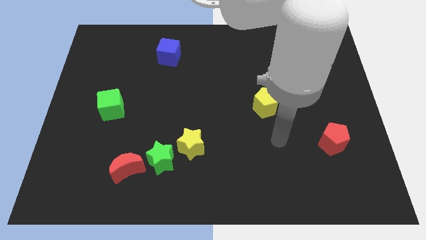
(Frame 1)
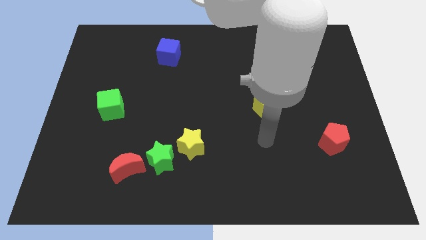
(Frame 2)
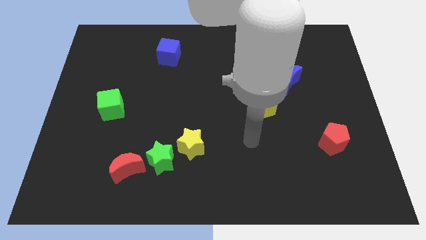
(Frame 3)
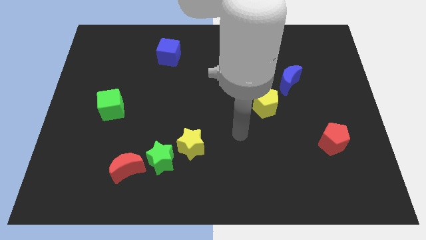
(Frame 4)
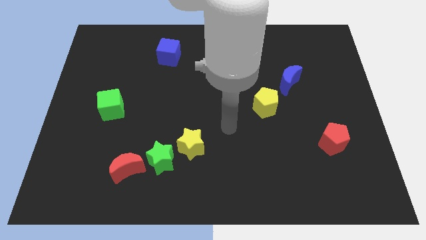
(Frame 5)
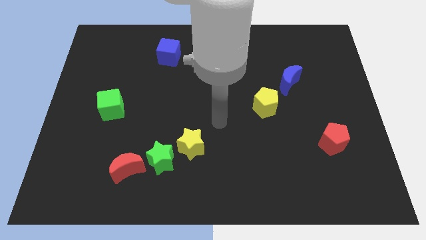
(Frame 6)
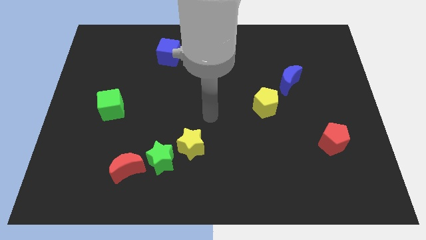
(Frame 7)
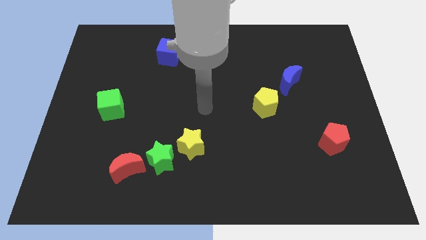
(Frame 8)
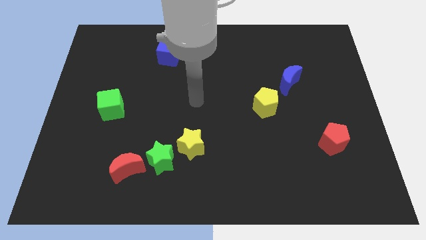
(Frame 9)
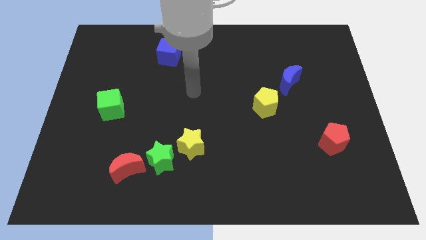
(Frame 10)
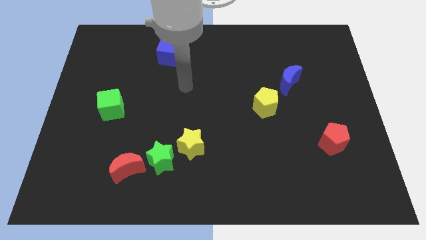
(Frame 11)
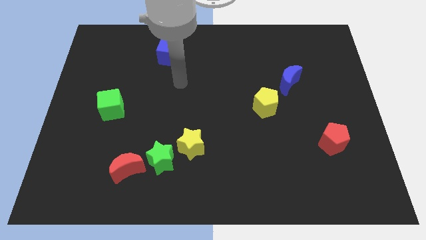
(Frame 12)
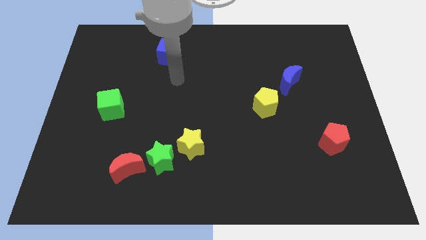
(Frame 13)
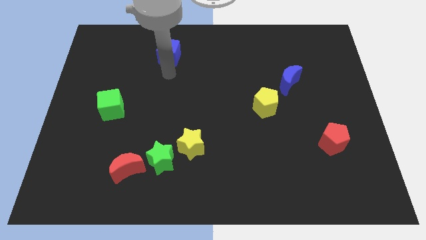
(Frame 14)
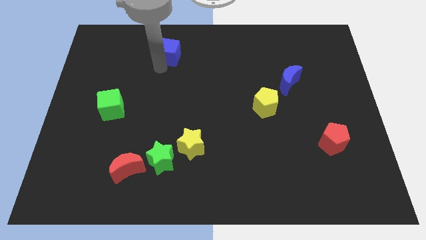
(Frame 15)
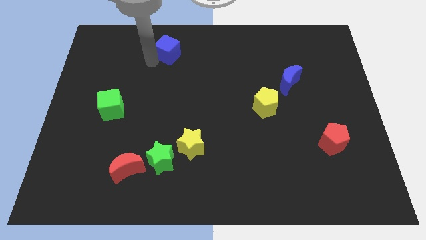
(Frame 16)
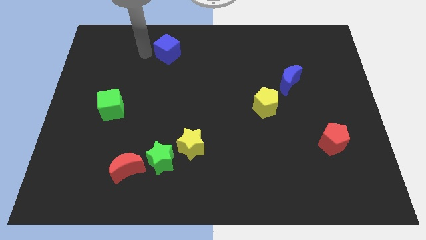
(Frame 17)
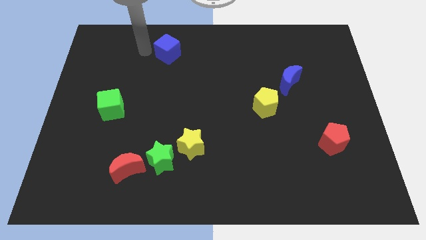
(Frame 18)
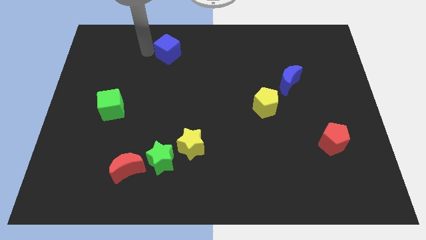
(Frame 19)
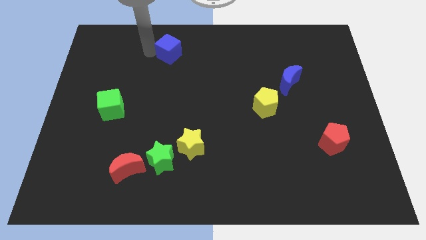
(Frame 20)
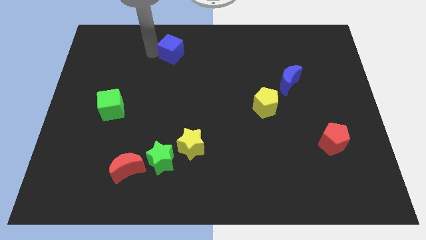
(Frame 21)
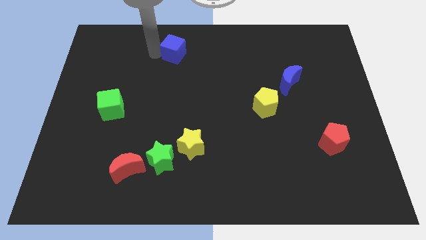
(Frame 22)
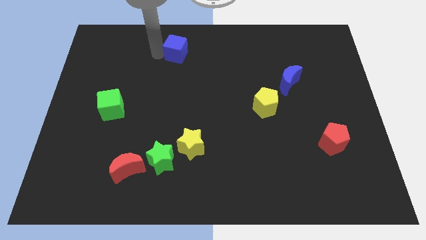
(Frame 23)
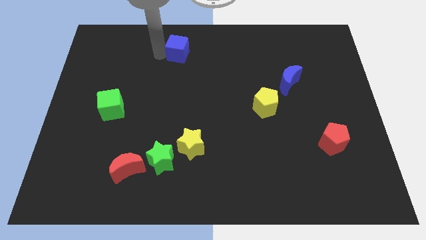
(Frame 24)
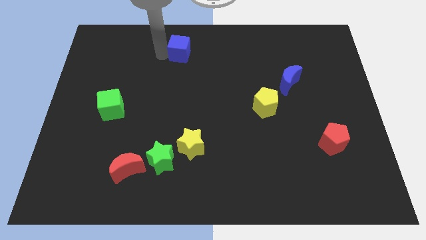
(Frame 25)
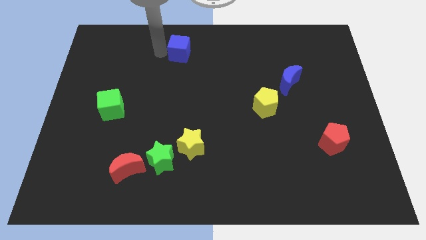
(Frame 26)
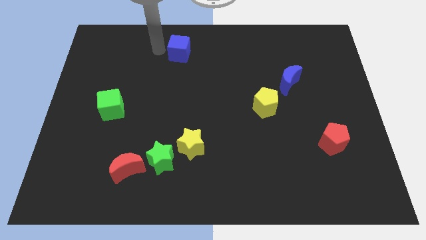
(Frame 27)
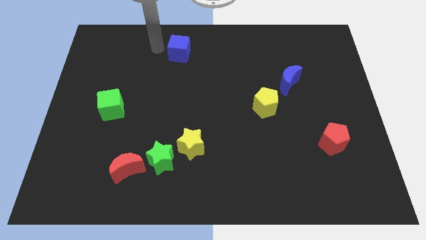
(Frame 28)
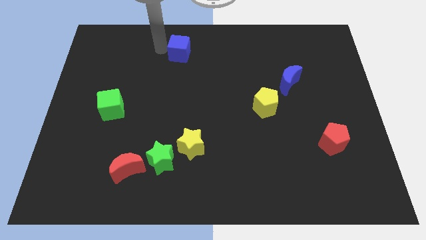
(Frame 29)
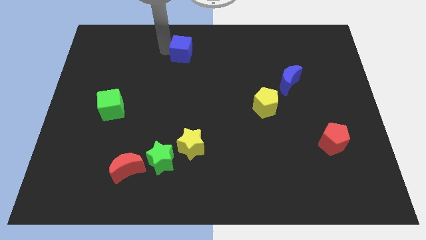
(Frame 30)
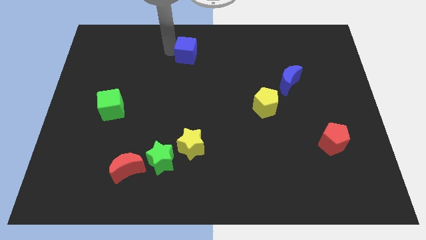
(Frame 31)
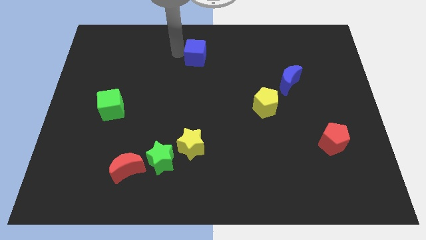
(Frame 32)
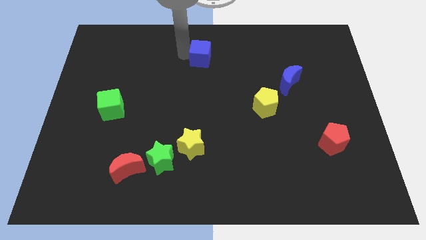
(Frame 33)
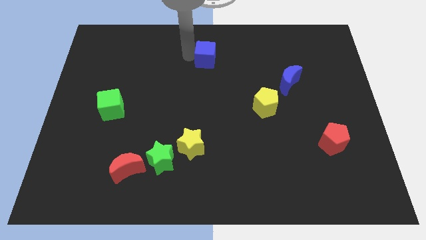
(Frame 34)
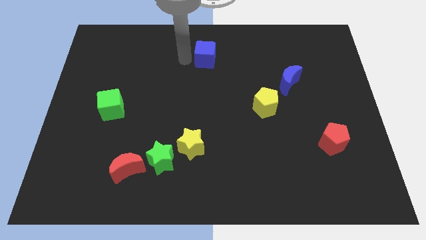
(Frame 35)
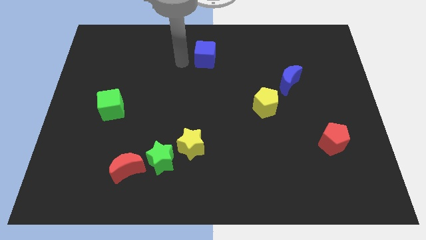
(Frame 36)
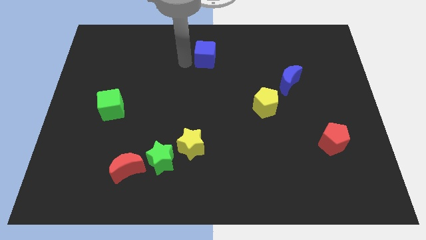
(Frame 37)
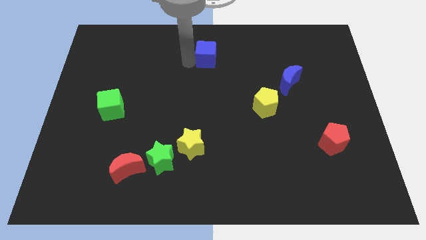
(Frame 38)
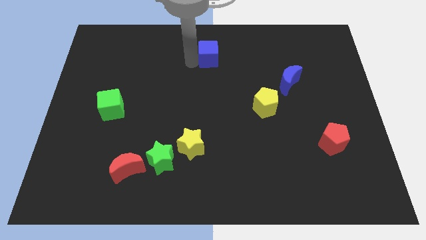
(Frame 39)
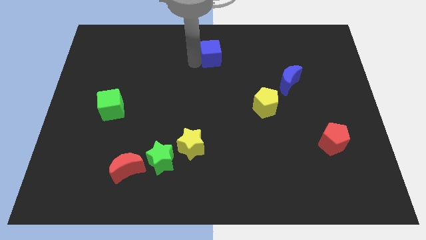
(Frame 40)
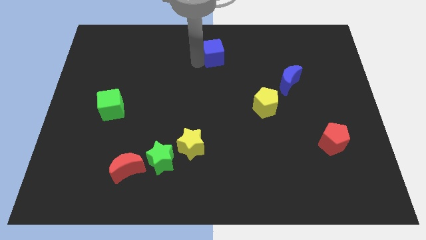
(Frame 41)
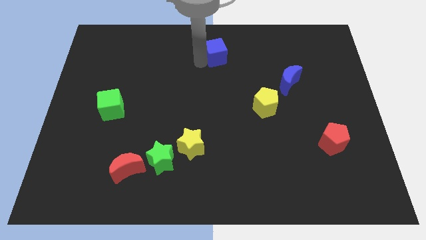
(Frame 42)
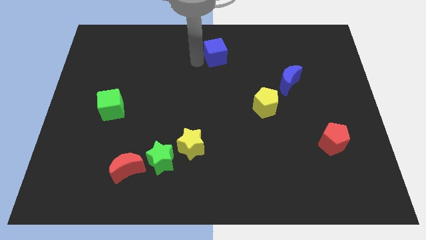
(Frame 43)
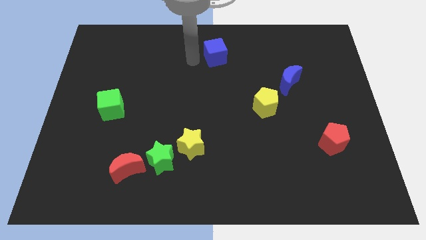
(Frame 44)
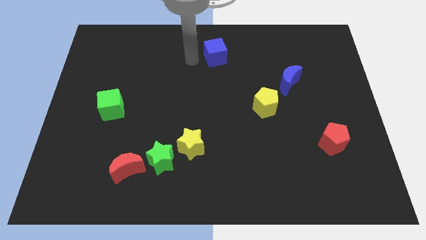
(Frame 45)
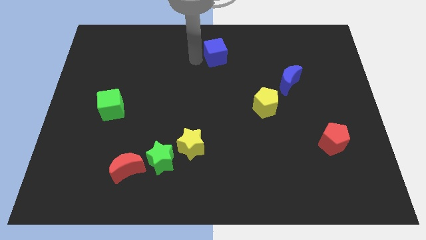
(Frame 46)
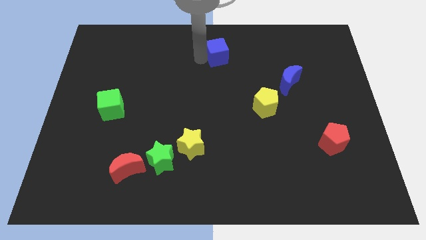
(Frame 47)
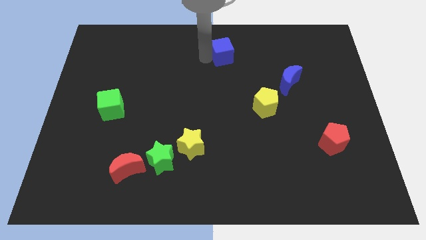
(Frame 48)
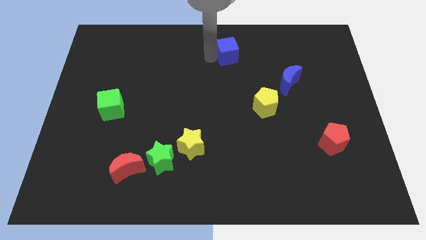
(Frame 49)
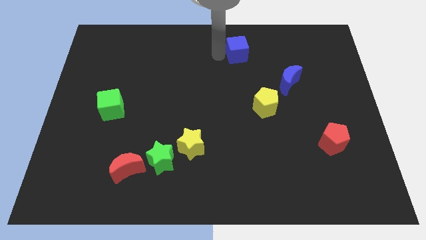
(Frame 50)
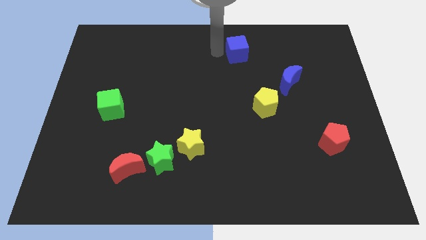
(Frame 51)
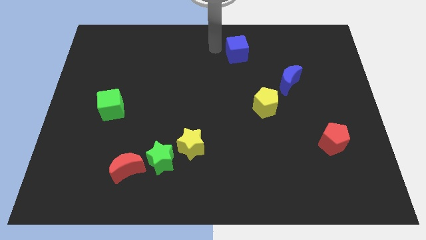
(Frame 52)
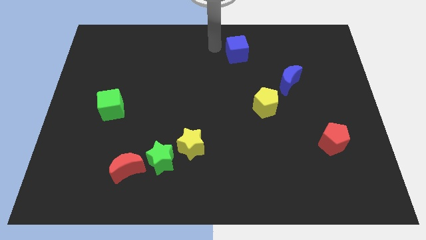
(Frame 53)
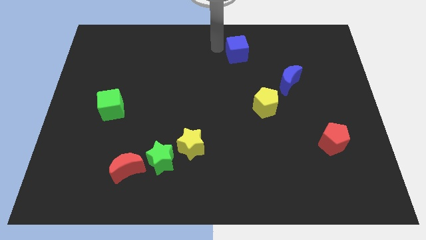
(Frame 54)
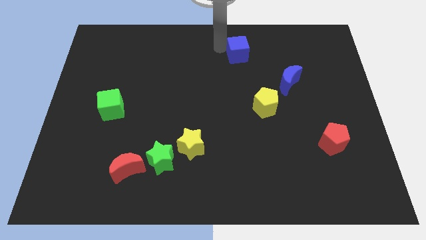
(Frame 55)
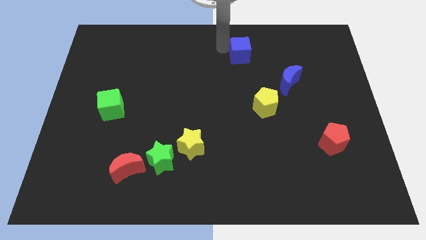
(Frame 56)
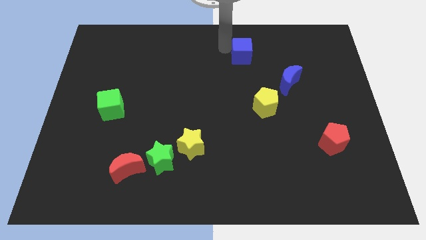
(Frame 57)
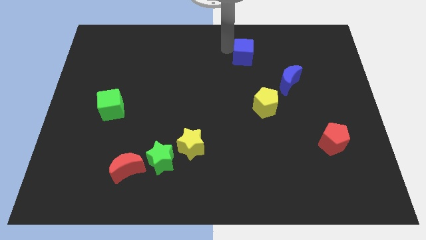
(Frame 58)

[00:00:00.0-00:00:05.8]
move the blue cube right

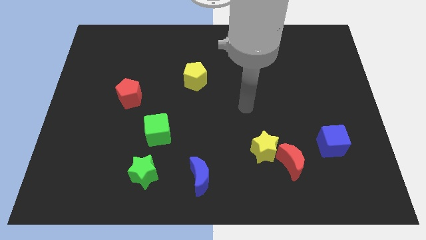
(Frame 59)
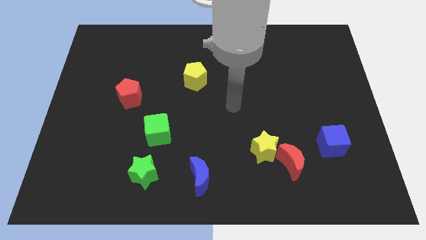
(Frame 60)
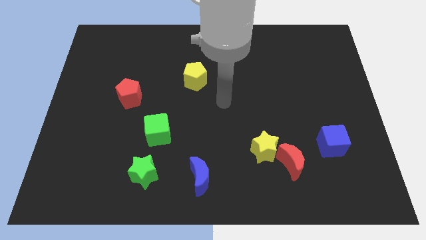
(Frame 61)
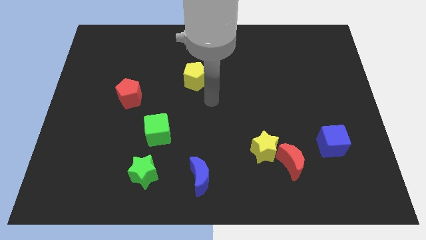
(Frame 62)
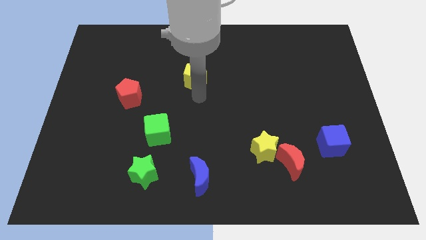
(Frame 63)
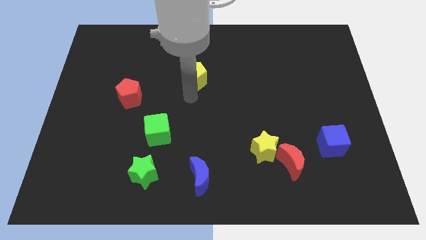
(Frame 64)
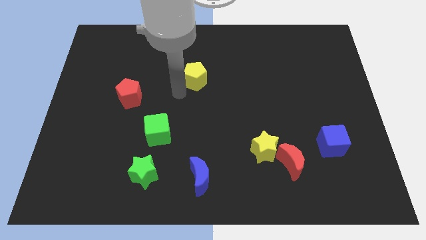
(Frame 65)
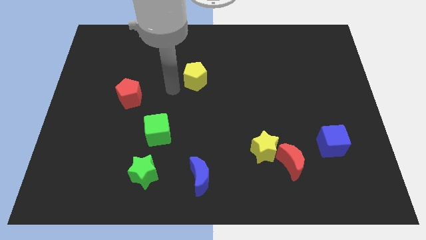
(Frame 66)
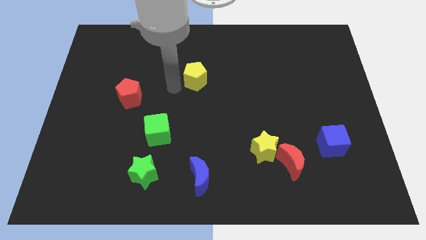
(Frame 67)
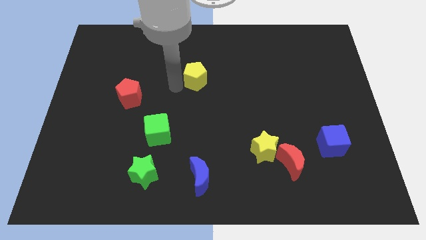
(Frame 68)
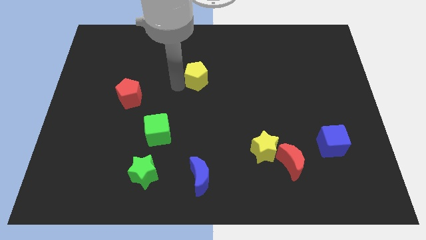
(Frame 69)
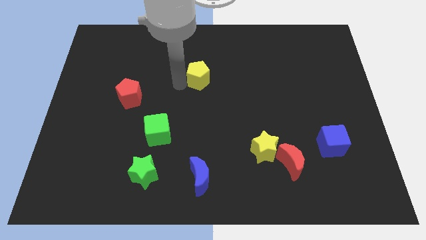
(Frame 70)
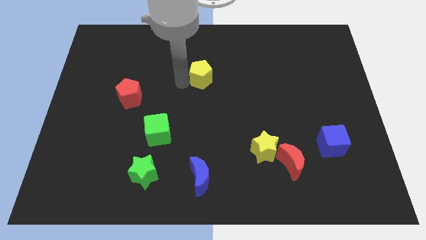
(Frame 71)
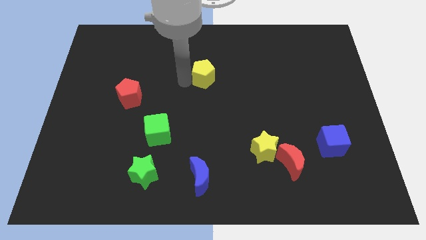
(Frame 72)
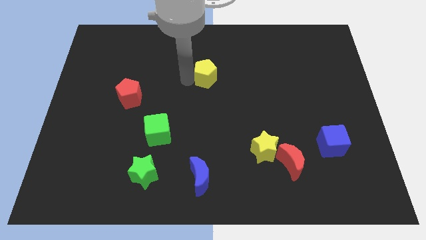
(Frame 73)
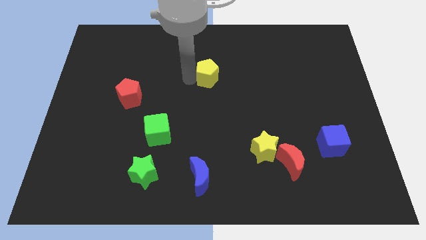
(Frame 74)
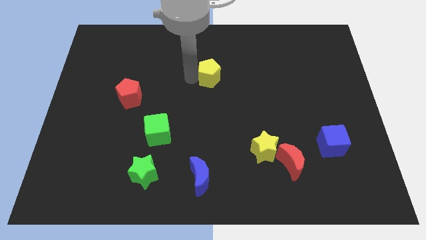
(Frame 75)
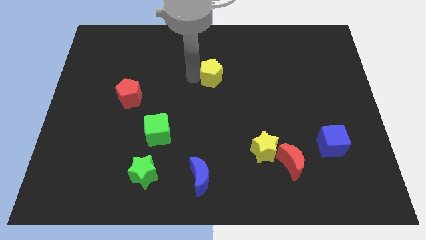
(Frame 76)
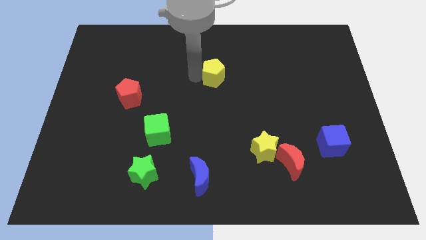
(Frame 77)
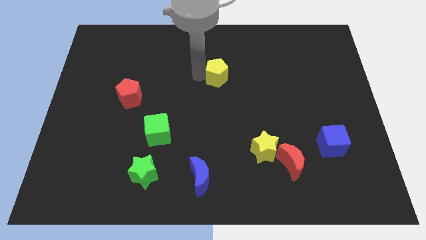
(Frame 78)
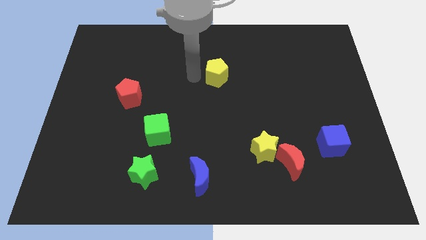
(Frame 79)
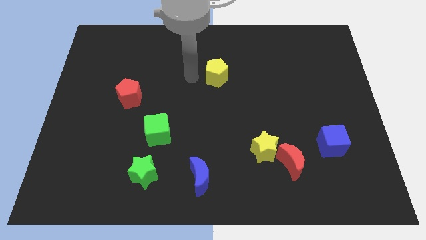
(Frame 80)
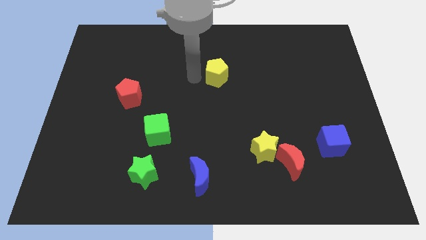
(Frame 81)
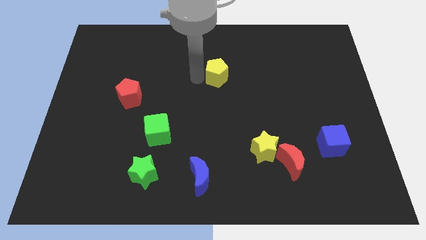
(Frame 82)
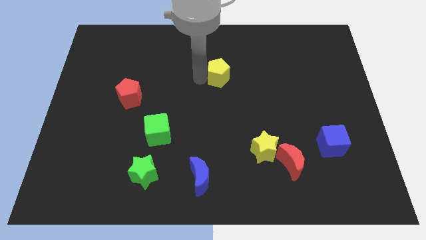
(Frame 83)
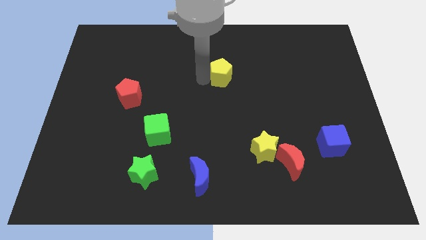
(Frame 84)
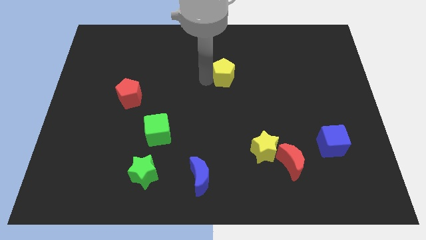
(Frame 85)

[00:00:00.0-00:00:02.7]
move the yellow pentagon slightly to the right
